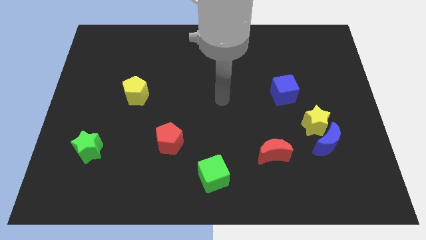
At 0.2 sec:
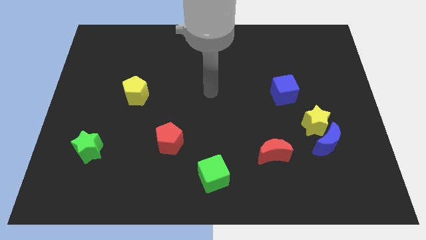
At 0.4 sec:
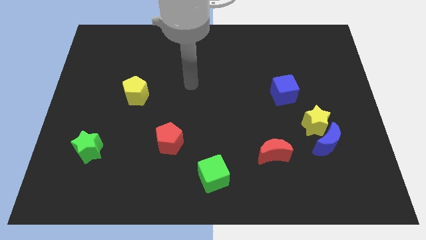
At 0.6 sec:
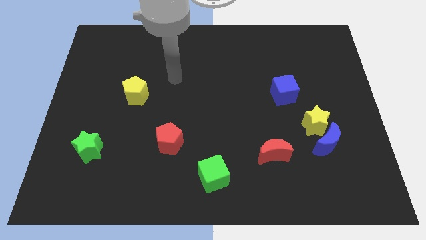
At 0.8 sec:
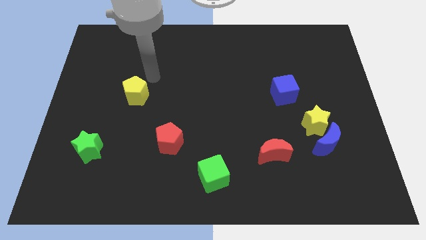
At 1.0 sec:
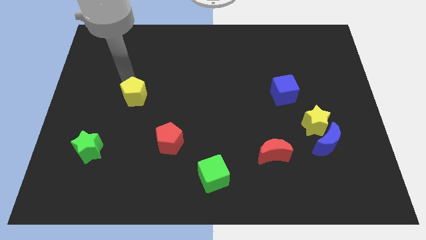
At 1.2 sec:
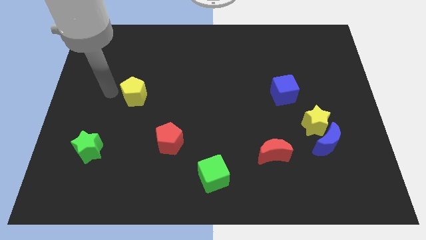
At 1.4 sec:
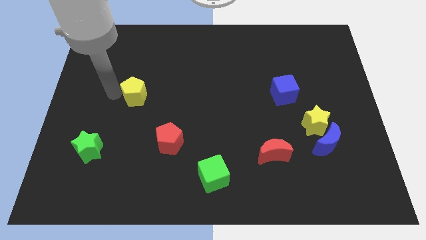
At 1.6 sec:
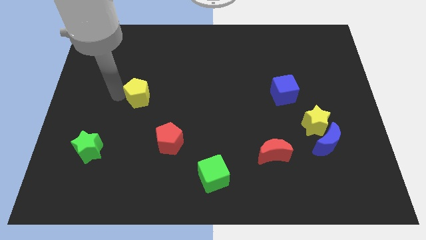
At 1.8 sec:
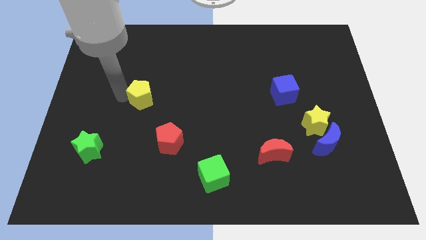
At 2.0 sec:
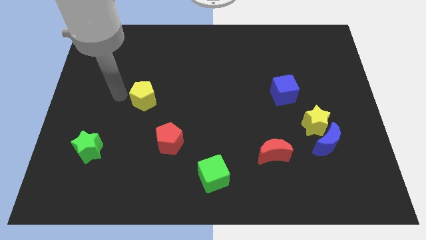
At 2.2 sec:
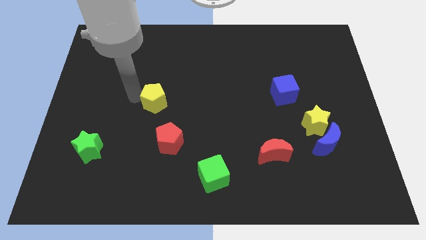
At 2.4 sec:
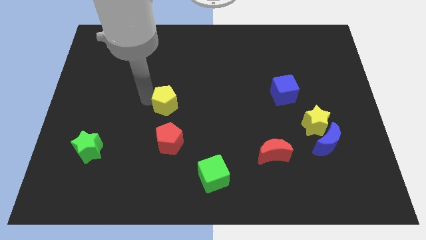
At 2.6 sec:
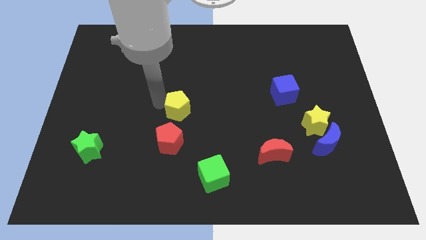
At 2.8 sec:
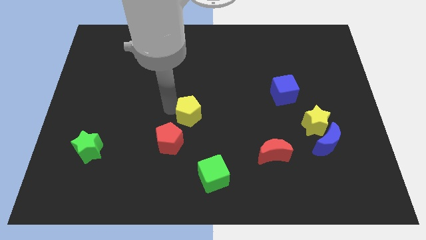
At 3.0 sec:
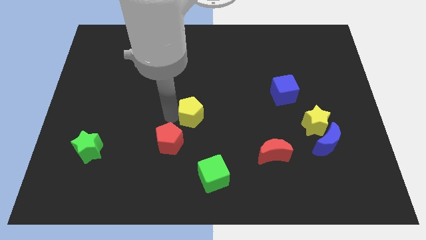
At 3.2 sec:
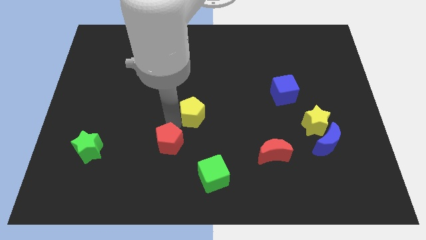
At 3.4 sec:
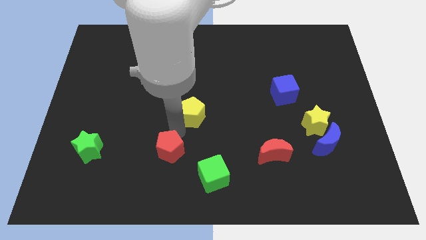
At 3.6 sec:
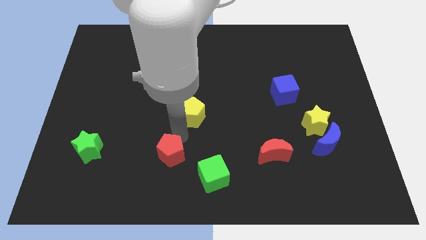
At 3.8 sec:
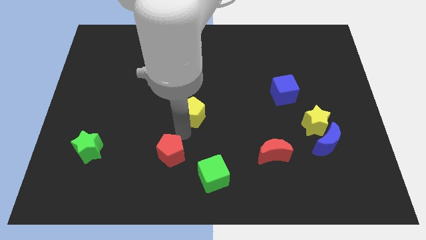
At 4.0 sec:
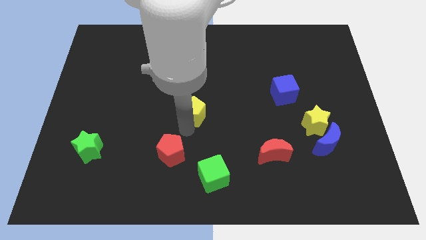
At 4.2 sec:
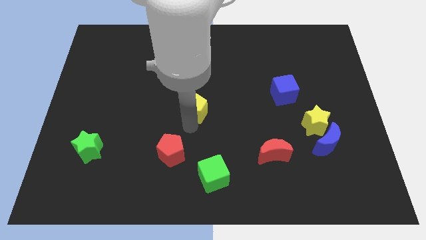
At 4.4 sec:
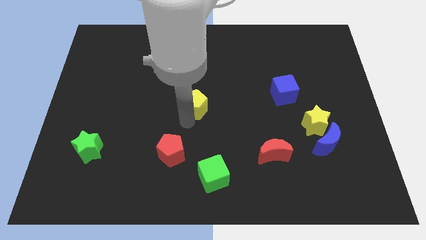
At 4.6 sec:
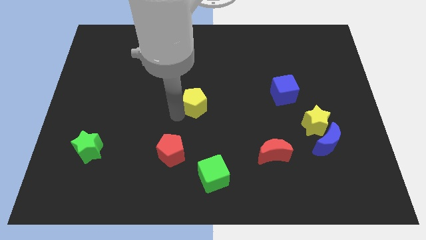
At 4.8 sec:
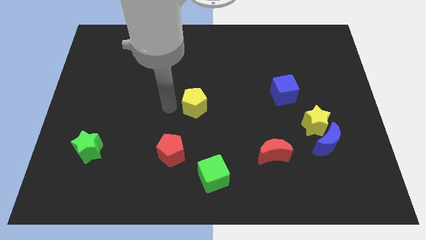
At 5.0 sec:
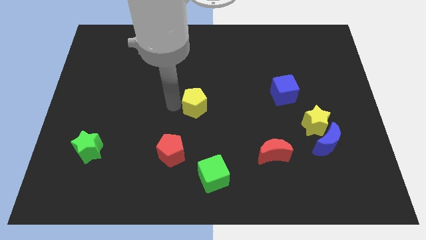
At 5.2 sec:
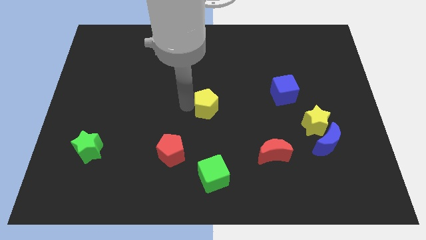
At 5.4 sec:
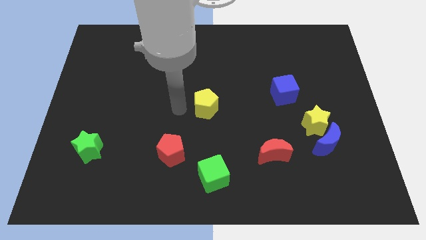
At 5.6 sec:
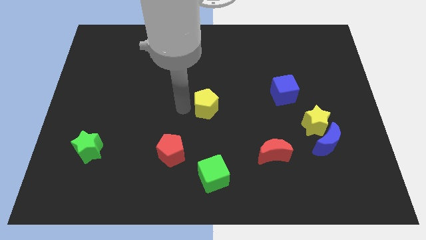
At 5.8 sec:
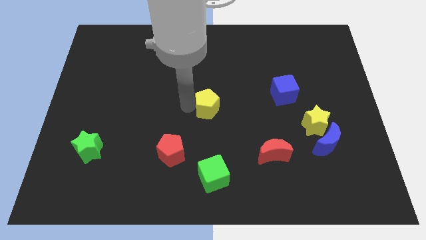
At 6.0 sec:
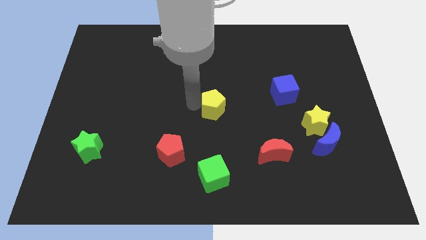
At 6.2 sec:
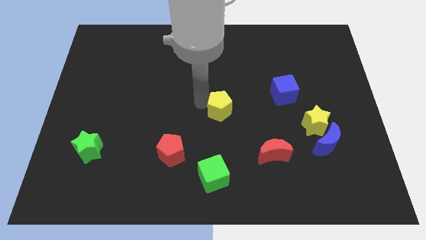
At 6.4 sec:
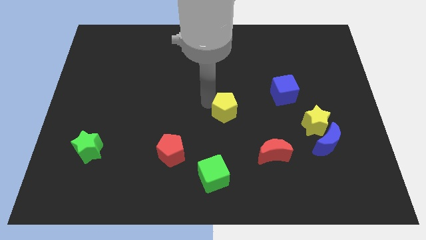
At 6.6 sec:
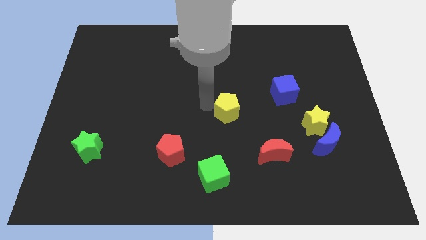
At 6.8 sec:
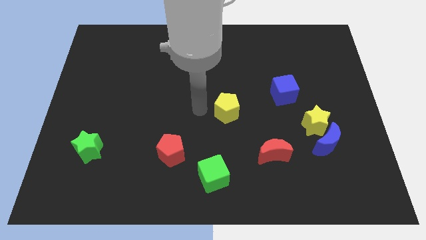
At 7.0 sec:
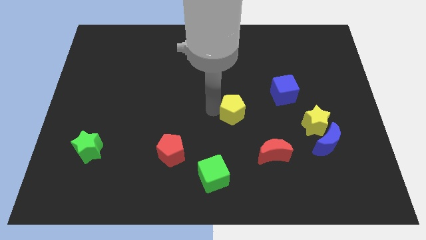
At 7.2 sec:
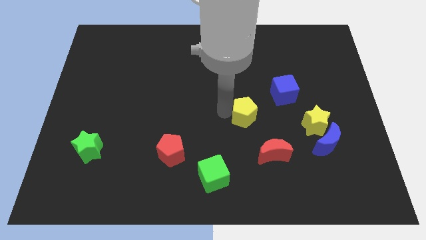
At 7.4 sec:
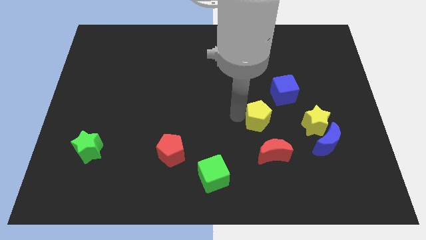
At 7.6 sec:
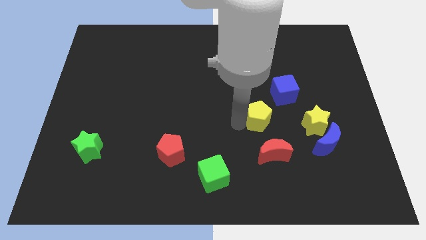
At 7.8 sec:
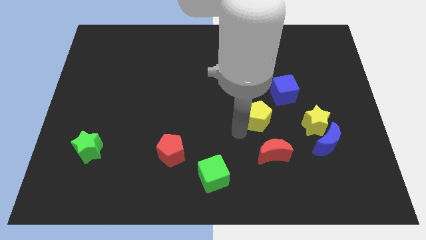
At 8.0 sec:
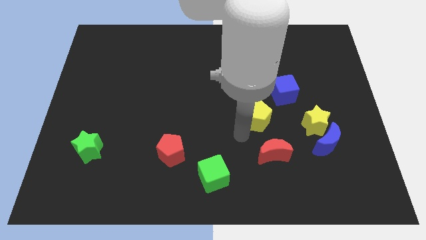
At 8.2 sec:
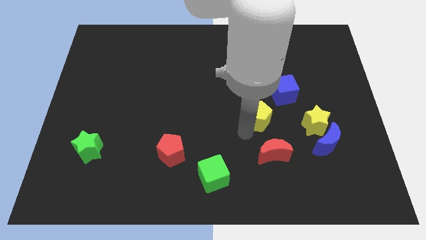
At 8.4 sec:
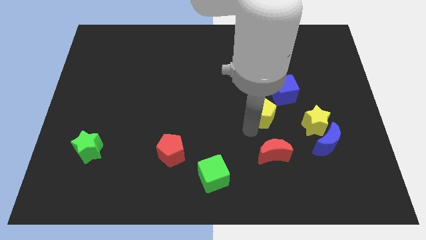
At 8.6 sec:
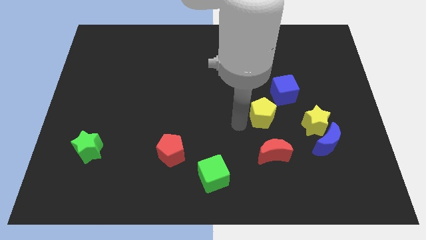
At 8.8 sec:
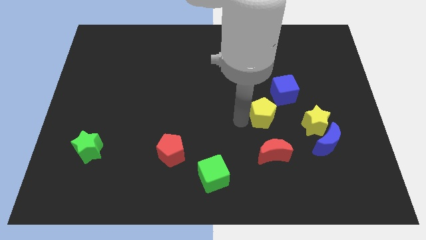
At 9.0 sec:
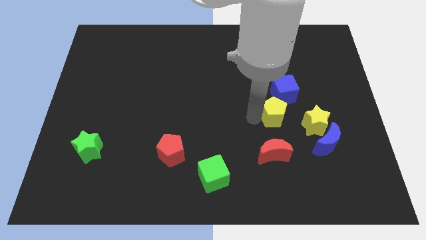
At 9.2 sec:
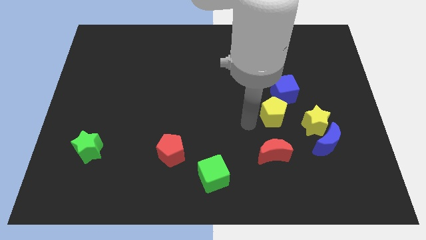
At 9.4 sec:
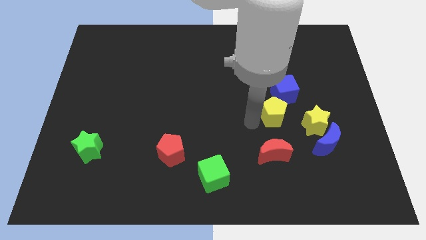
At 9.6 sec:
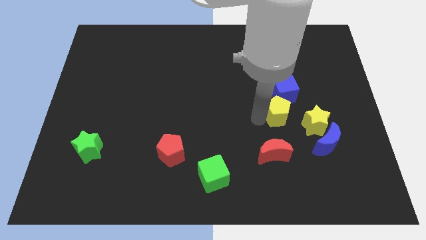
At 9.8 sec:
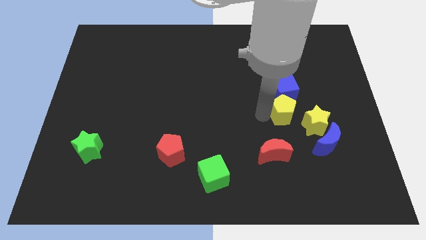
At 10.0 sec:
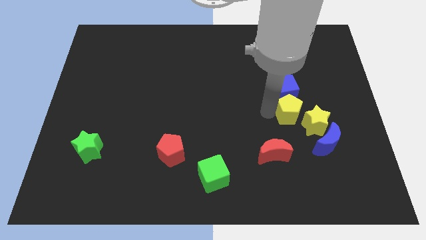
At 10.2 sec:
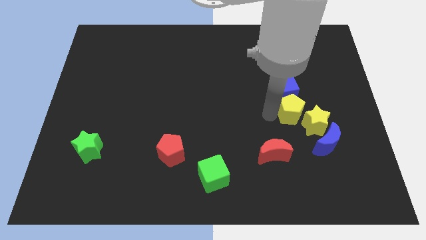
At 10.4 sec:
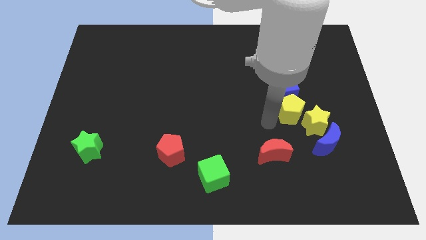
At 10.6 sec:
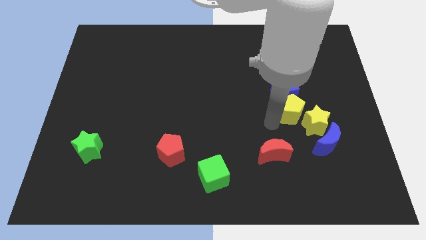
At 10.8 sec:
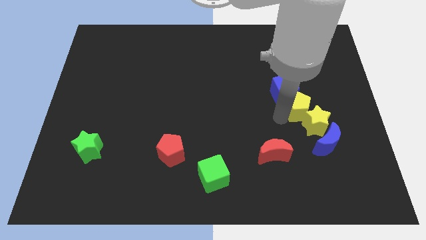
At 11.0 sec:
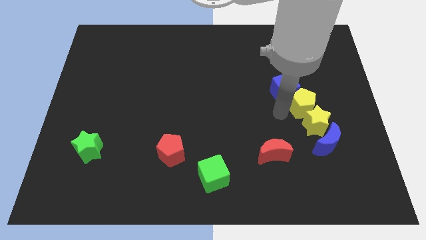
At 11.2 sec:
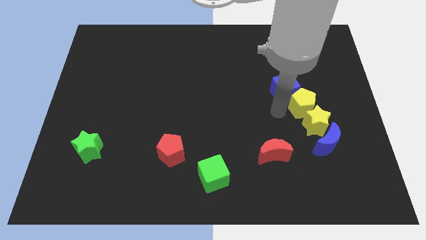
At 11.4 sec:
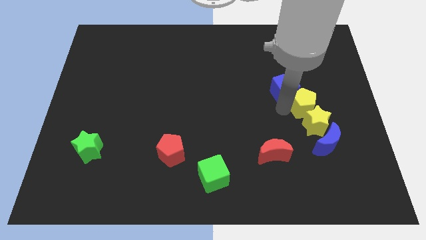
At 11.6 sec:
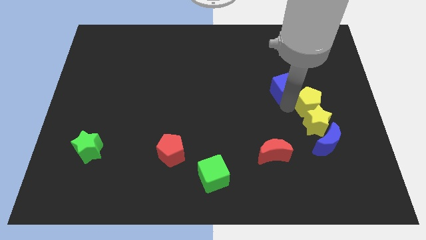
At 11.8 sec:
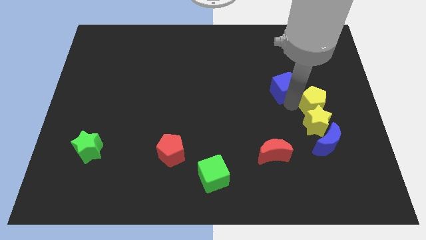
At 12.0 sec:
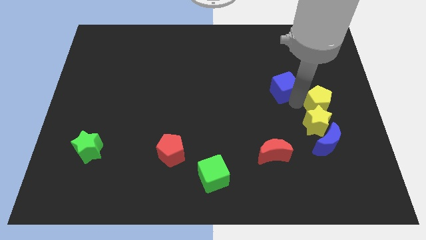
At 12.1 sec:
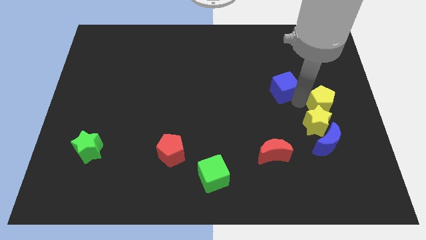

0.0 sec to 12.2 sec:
push the yellow pentagon to the center right

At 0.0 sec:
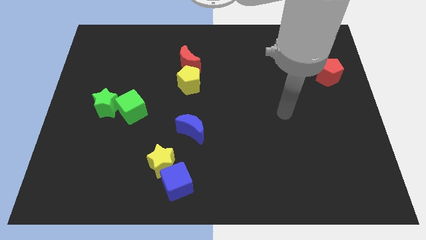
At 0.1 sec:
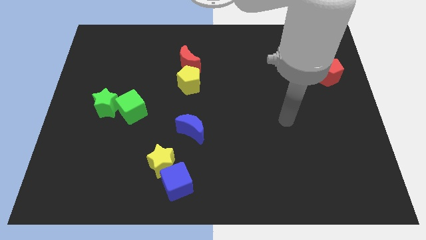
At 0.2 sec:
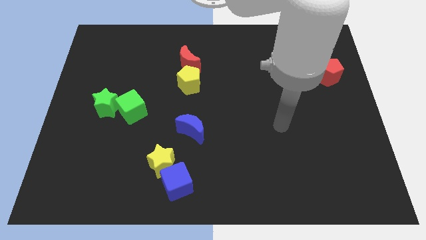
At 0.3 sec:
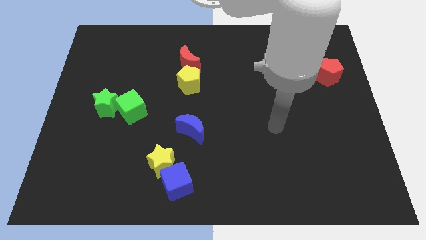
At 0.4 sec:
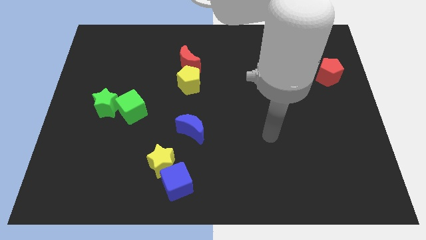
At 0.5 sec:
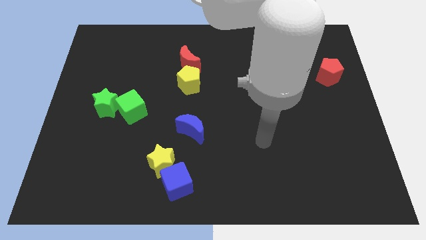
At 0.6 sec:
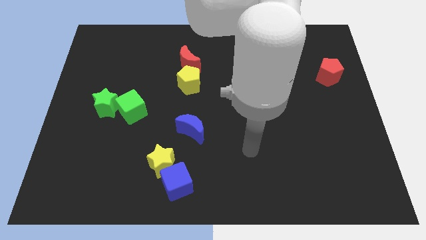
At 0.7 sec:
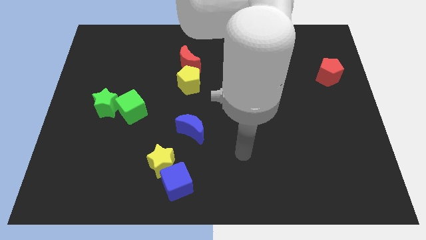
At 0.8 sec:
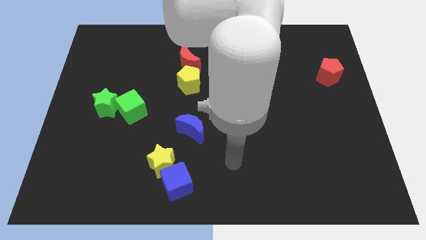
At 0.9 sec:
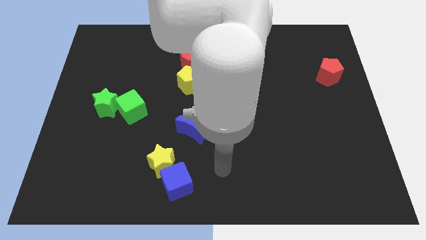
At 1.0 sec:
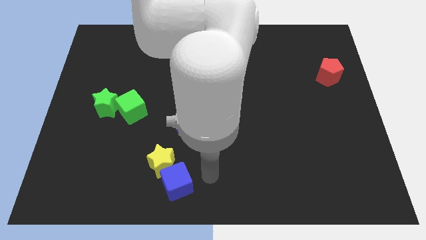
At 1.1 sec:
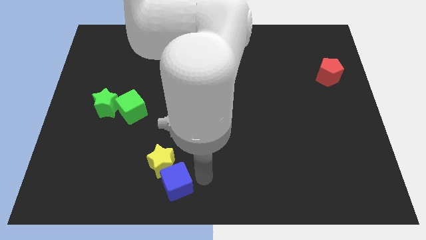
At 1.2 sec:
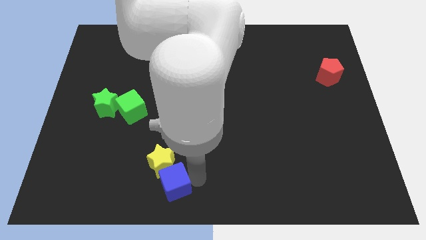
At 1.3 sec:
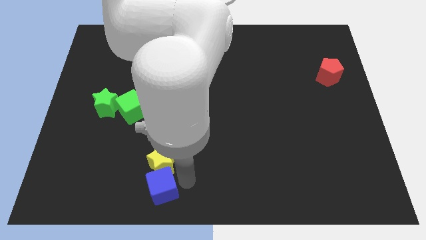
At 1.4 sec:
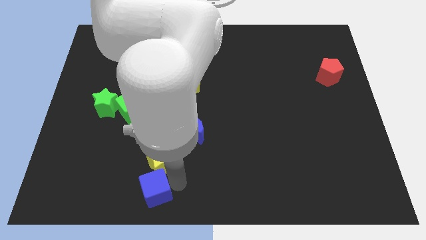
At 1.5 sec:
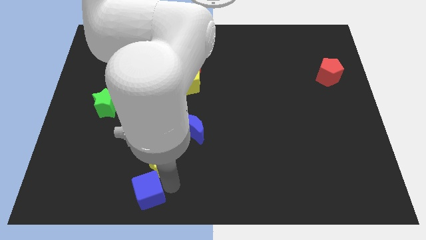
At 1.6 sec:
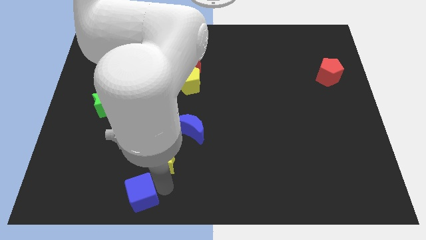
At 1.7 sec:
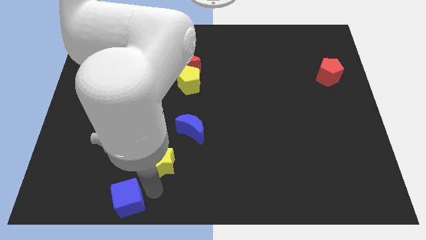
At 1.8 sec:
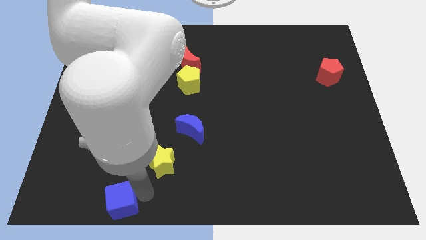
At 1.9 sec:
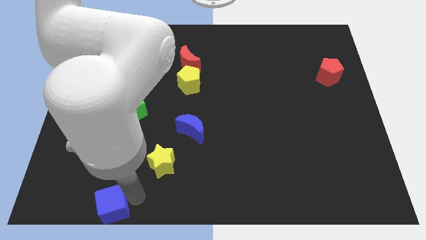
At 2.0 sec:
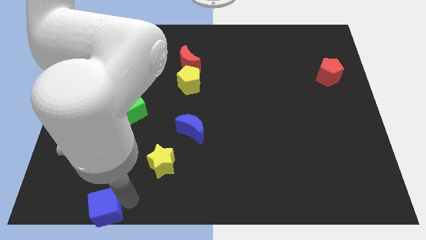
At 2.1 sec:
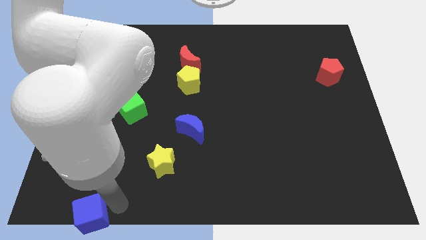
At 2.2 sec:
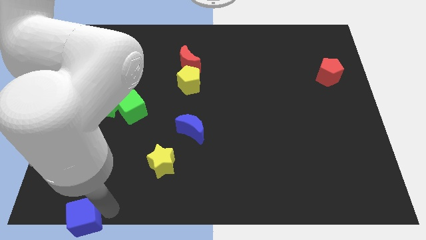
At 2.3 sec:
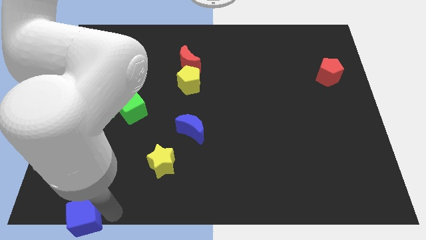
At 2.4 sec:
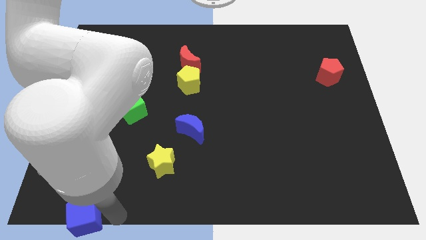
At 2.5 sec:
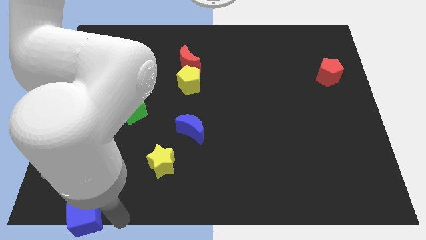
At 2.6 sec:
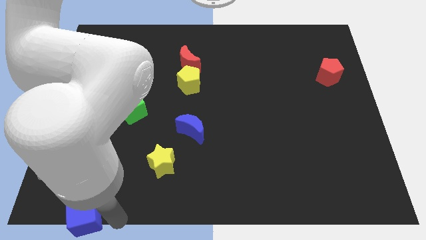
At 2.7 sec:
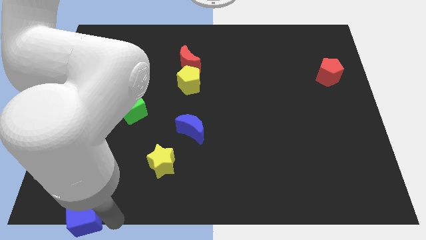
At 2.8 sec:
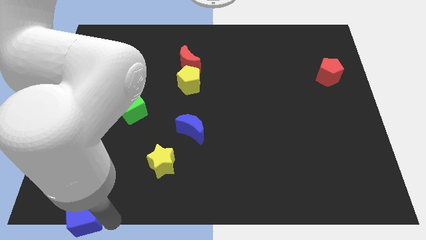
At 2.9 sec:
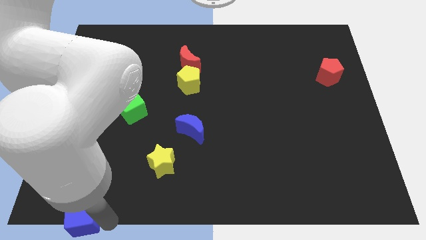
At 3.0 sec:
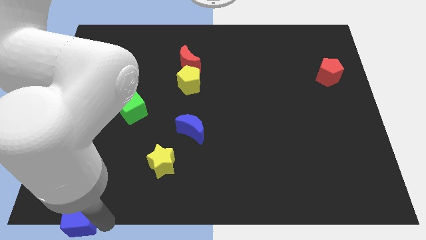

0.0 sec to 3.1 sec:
move the blue cube to the bottom left of the board
